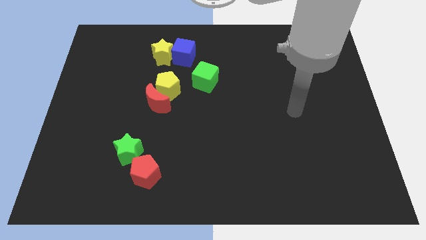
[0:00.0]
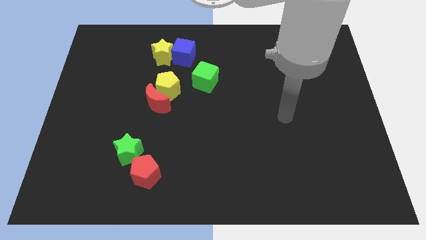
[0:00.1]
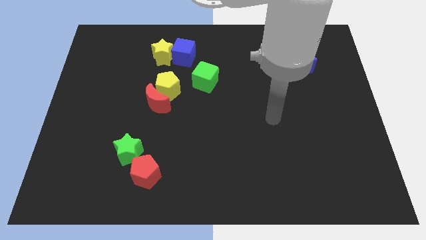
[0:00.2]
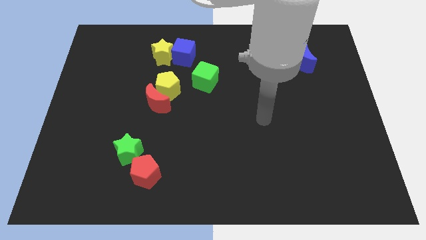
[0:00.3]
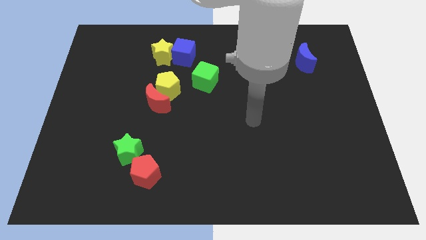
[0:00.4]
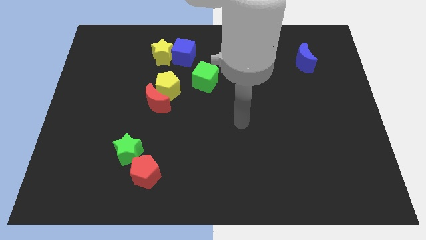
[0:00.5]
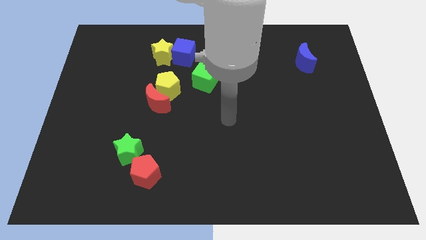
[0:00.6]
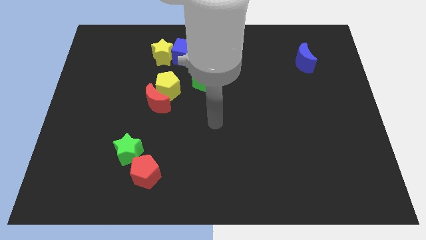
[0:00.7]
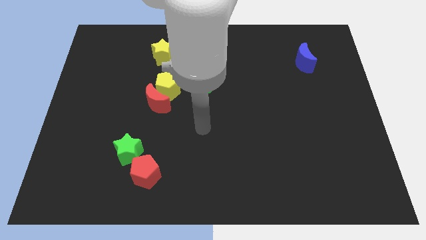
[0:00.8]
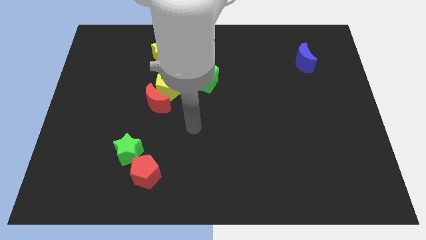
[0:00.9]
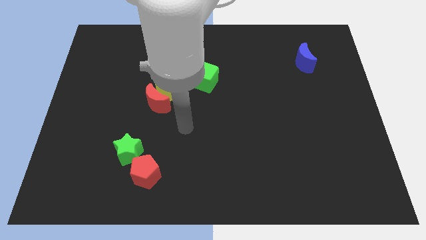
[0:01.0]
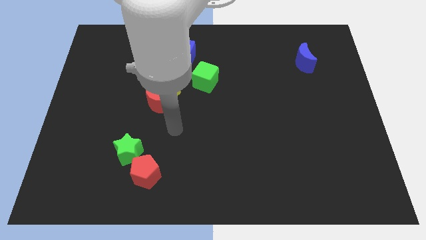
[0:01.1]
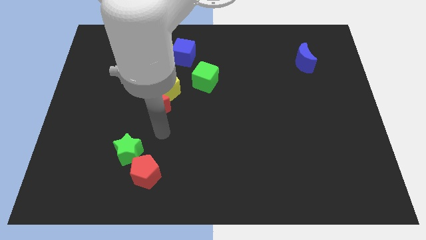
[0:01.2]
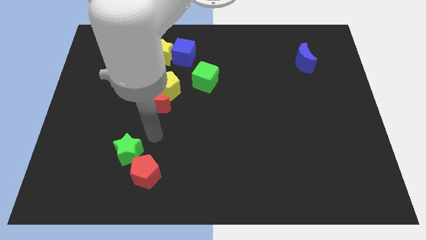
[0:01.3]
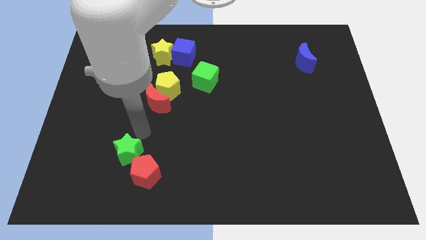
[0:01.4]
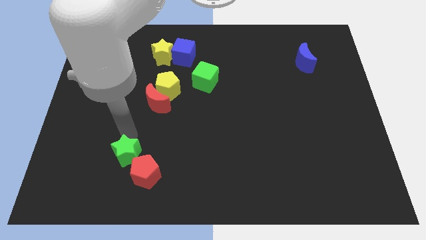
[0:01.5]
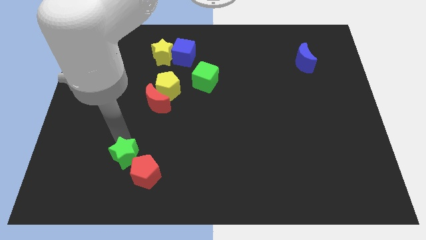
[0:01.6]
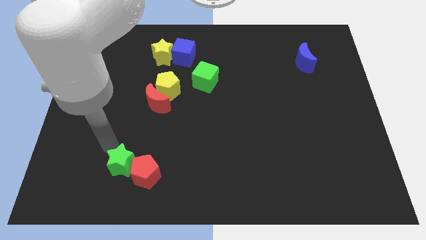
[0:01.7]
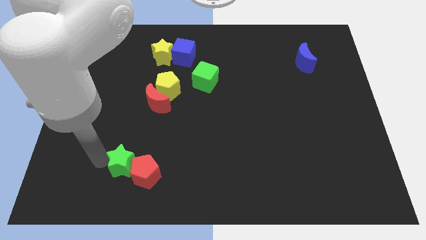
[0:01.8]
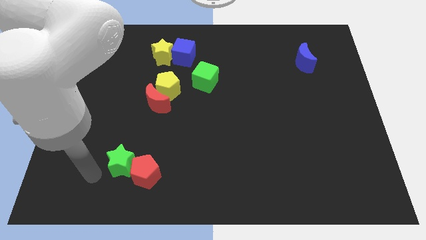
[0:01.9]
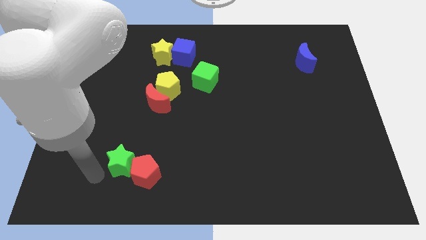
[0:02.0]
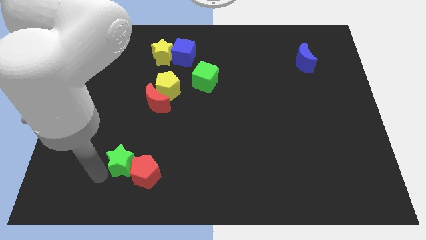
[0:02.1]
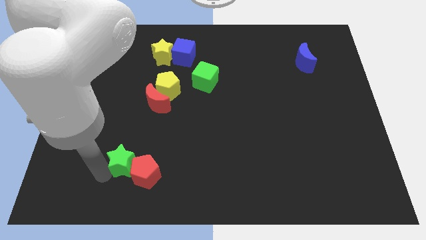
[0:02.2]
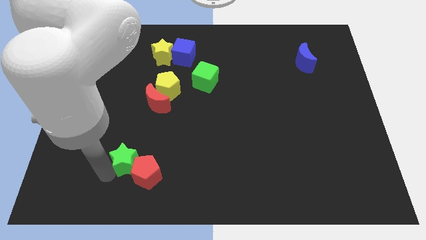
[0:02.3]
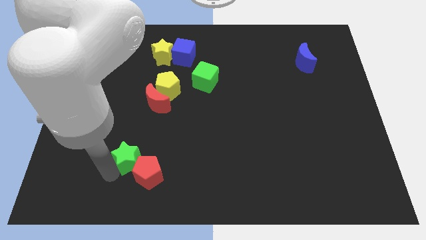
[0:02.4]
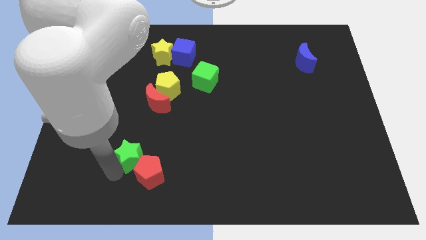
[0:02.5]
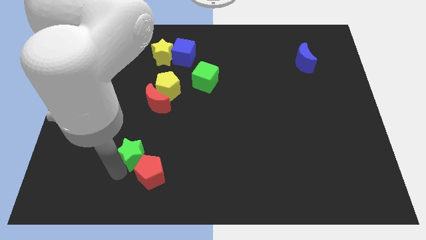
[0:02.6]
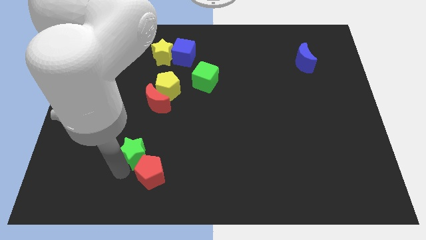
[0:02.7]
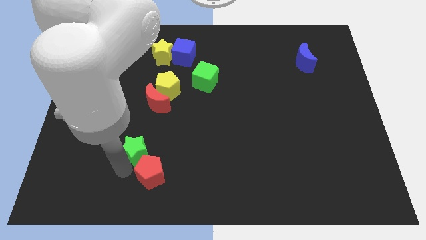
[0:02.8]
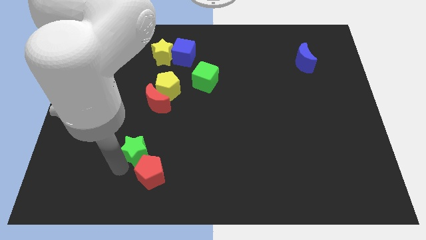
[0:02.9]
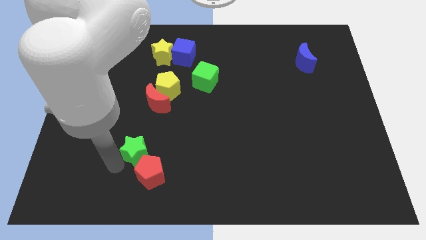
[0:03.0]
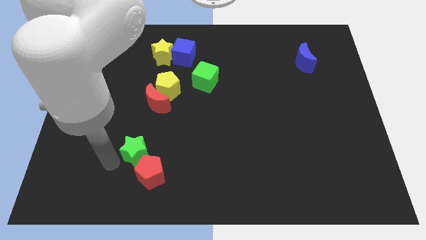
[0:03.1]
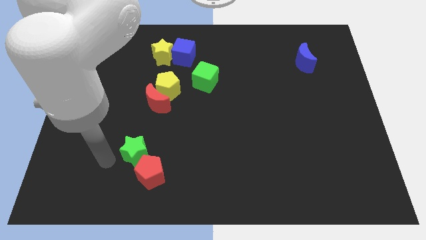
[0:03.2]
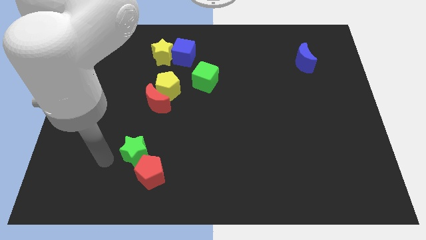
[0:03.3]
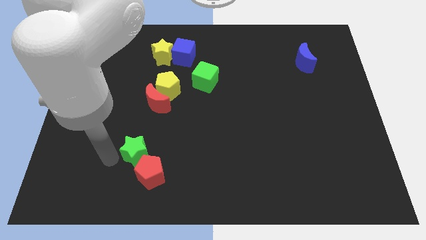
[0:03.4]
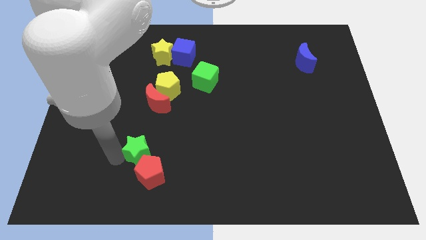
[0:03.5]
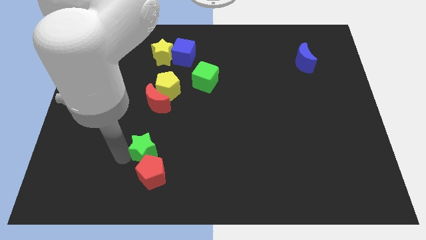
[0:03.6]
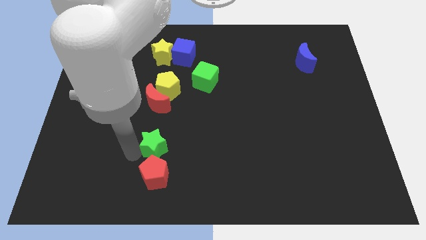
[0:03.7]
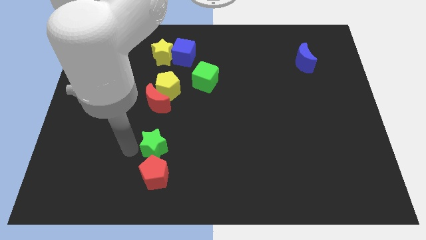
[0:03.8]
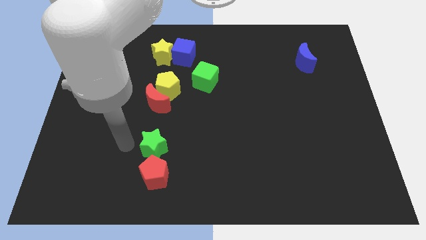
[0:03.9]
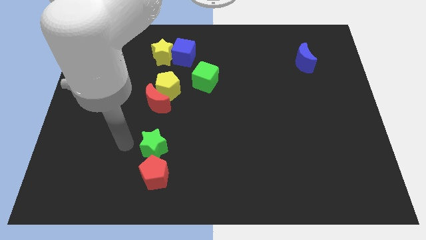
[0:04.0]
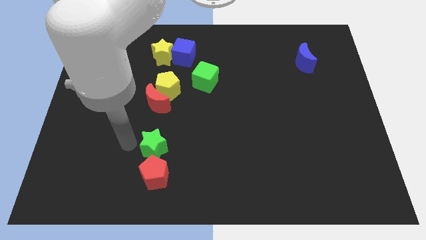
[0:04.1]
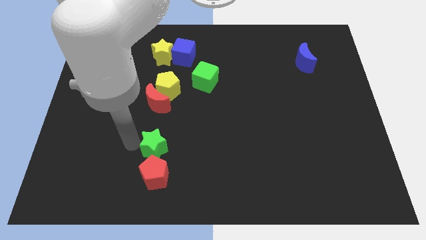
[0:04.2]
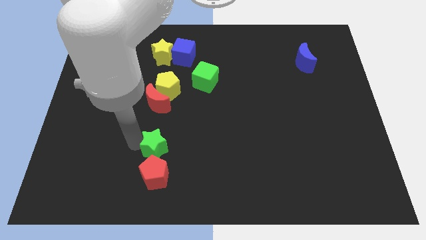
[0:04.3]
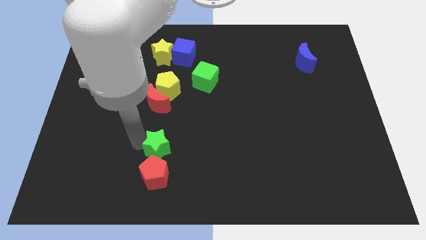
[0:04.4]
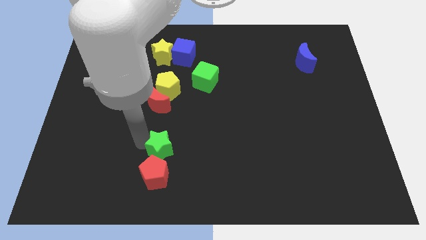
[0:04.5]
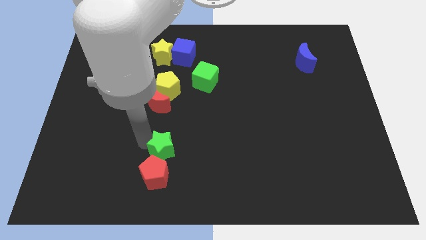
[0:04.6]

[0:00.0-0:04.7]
slide the green star slightly right

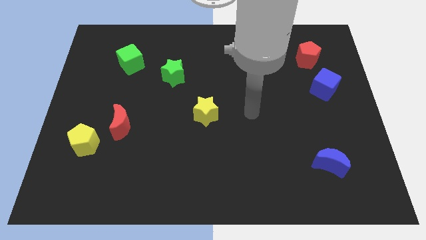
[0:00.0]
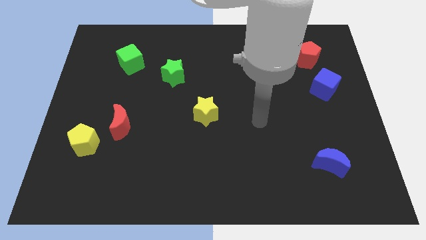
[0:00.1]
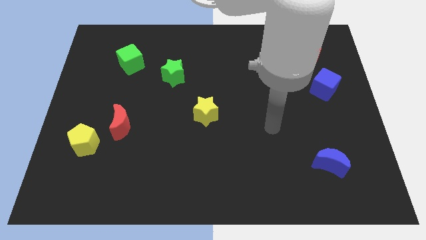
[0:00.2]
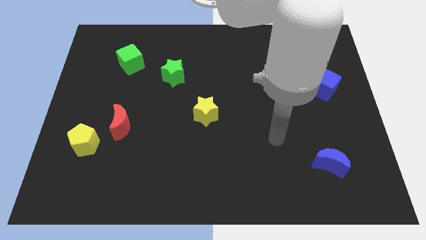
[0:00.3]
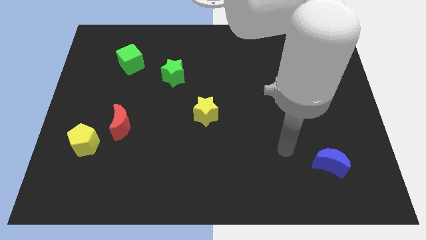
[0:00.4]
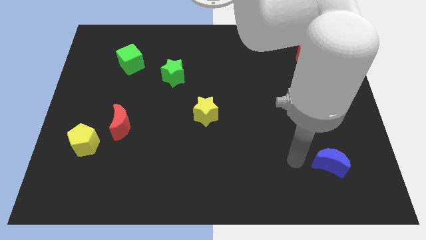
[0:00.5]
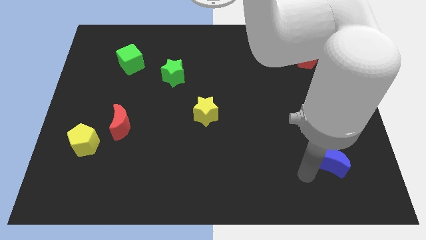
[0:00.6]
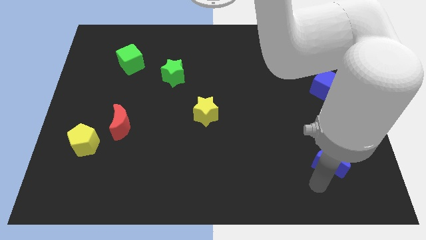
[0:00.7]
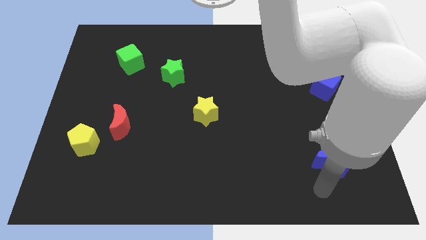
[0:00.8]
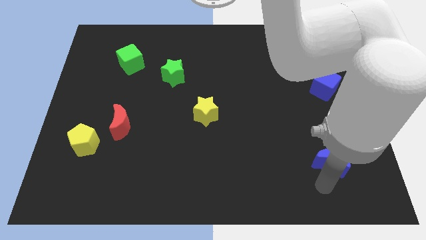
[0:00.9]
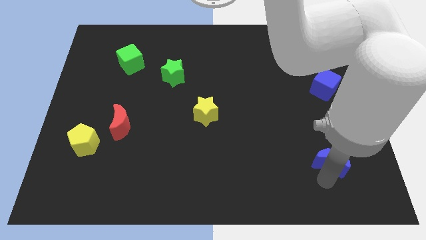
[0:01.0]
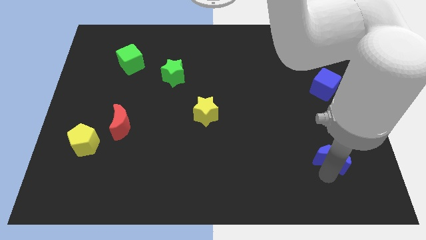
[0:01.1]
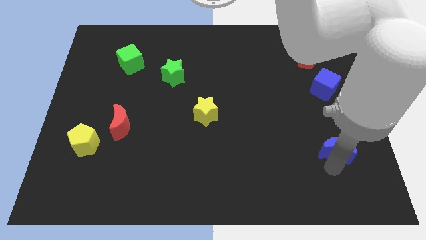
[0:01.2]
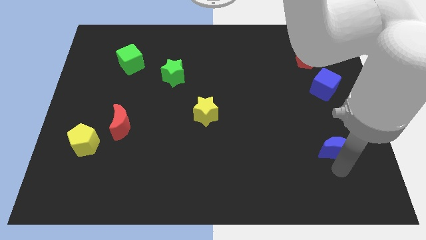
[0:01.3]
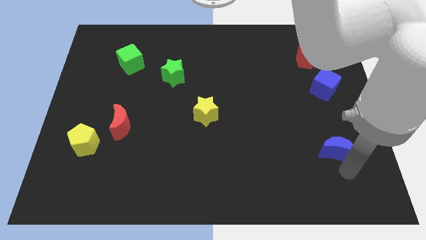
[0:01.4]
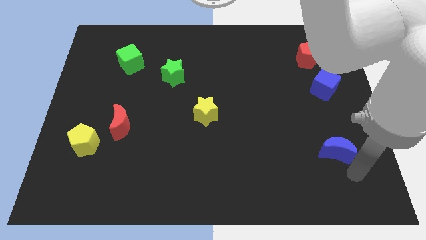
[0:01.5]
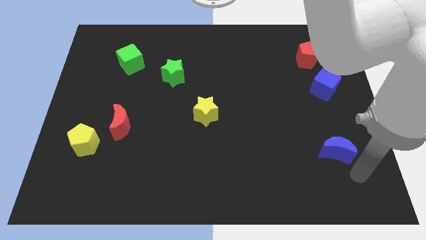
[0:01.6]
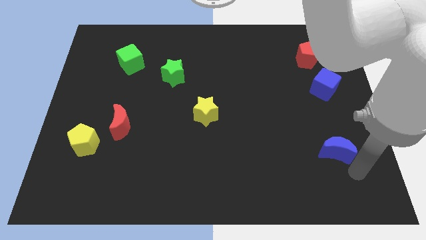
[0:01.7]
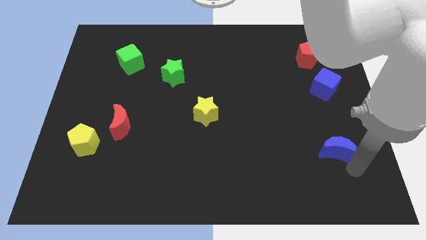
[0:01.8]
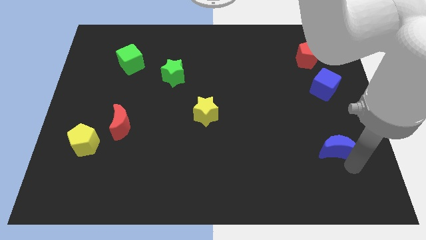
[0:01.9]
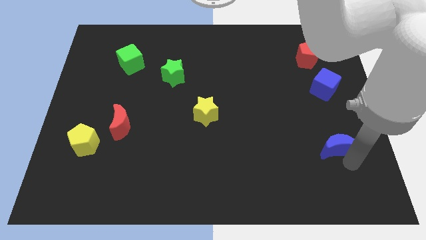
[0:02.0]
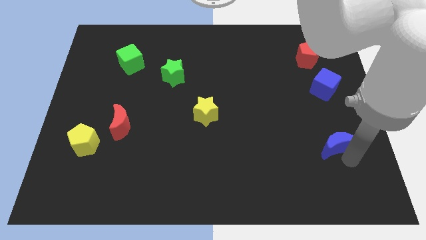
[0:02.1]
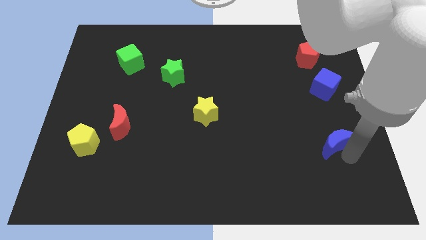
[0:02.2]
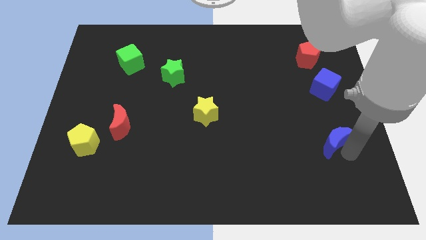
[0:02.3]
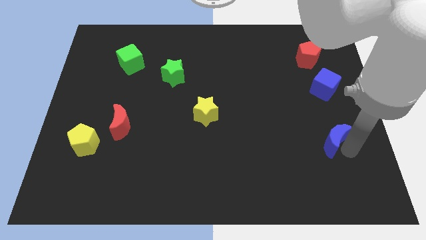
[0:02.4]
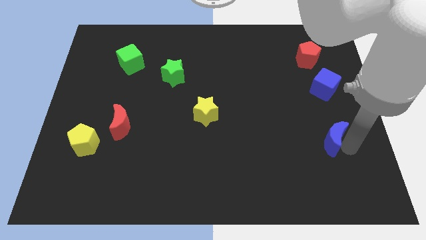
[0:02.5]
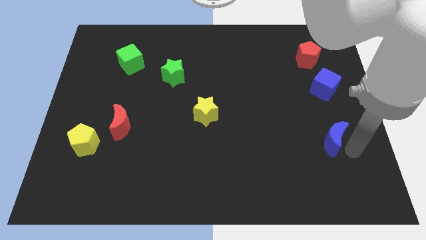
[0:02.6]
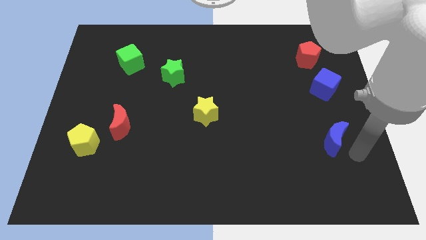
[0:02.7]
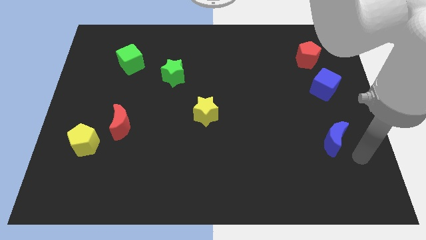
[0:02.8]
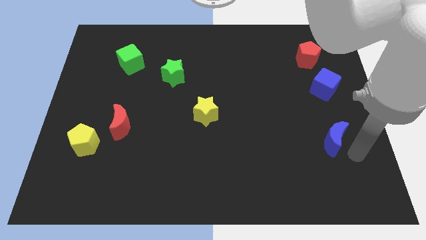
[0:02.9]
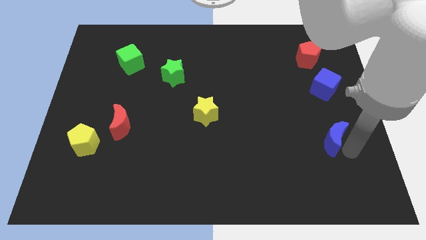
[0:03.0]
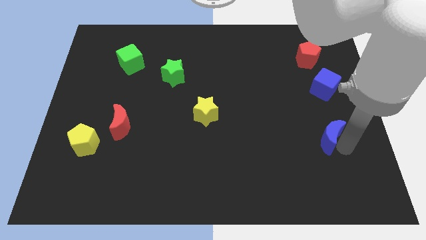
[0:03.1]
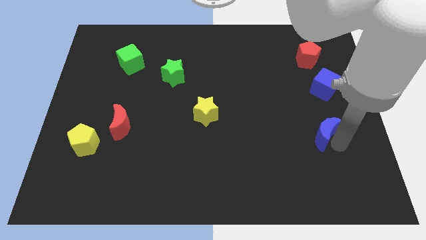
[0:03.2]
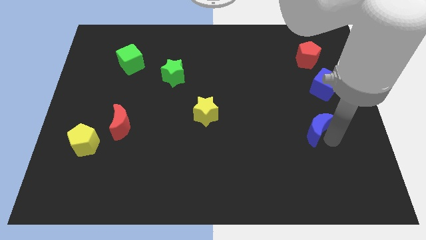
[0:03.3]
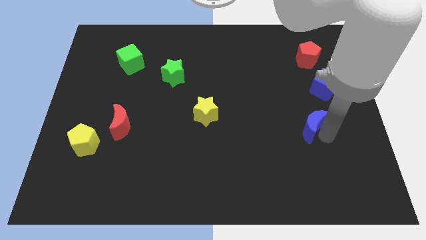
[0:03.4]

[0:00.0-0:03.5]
move the blue moon diagonally up and to the left a little
